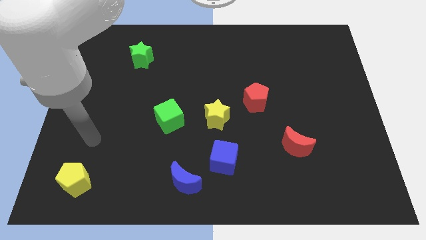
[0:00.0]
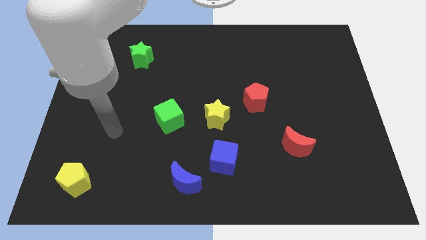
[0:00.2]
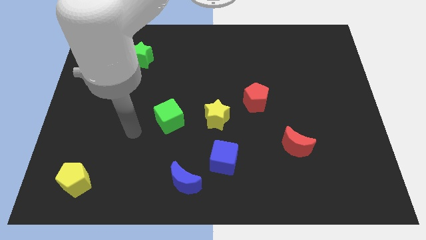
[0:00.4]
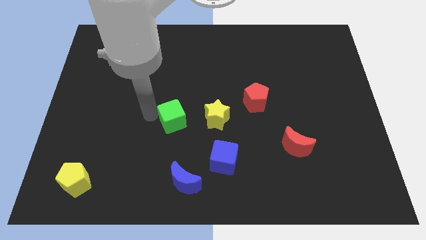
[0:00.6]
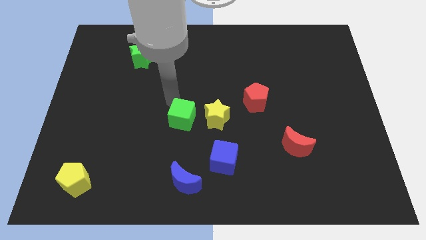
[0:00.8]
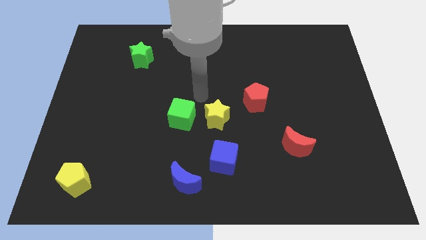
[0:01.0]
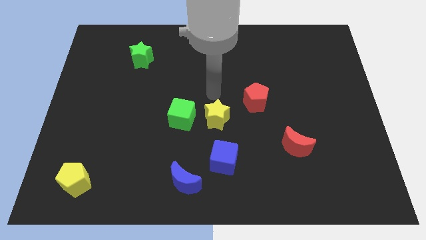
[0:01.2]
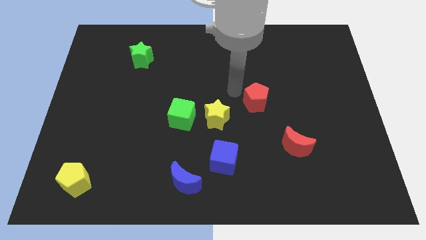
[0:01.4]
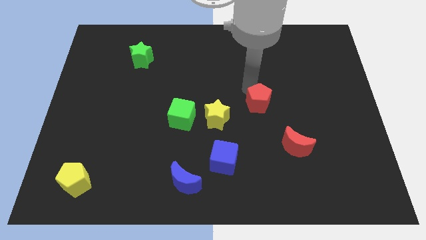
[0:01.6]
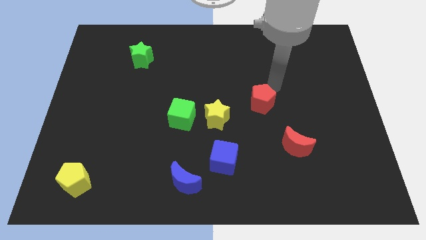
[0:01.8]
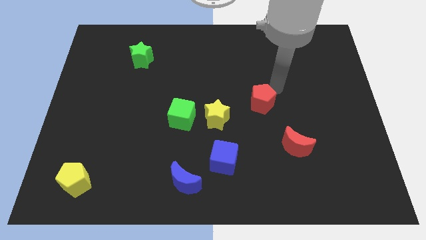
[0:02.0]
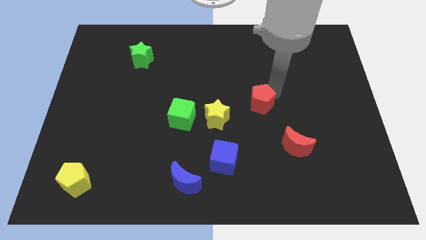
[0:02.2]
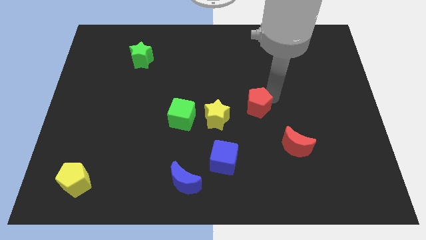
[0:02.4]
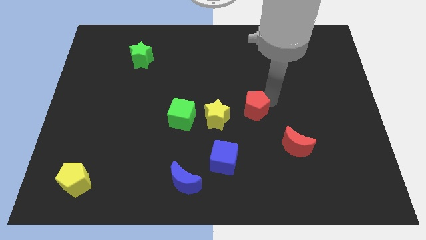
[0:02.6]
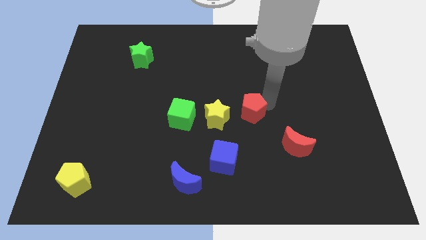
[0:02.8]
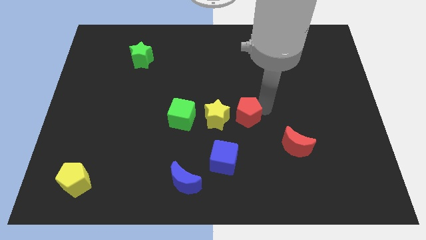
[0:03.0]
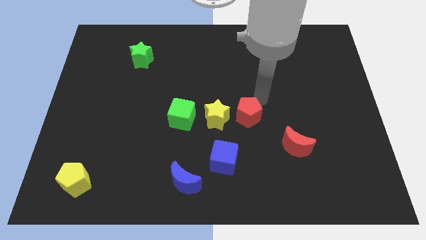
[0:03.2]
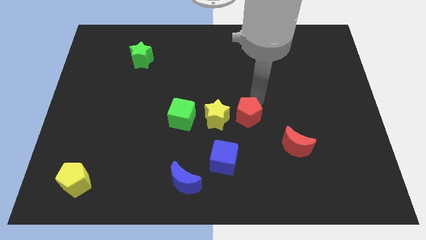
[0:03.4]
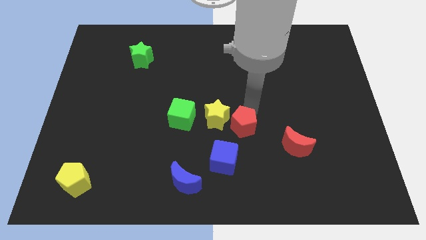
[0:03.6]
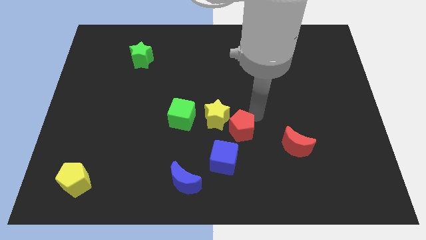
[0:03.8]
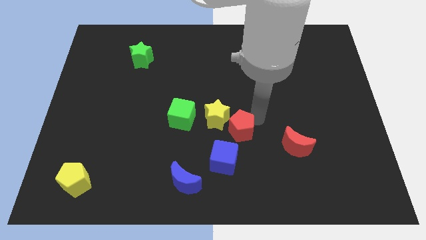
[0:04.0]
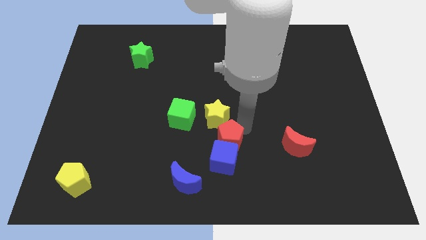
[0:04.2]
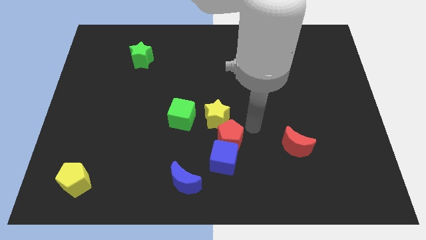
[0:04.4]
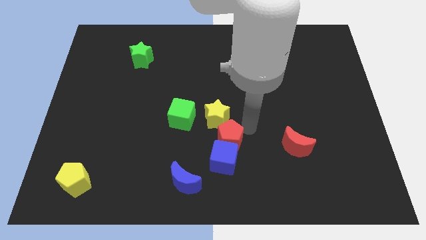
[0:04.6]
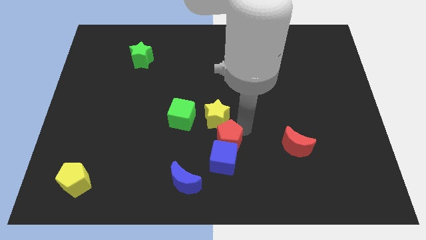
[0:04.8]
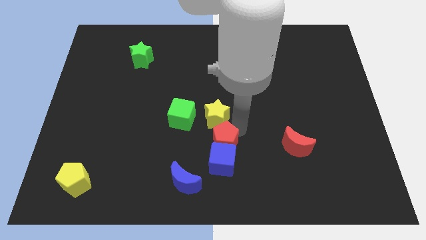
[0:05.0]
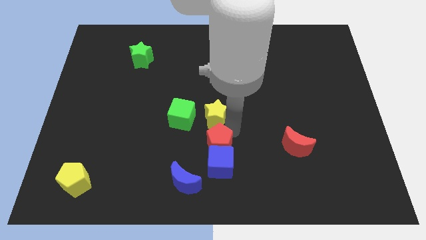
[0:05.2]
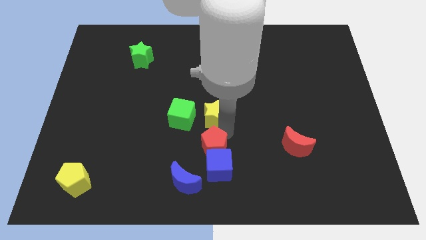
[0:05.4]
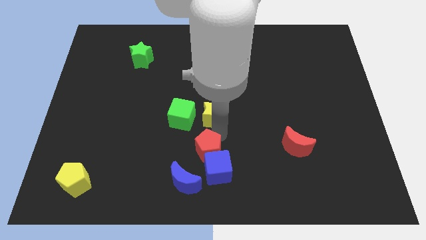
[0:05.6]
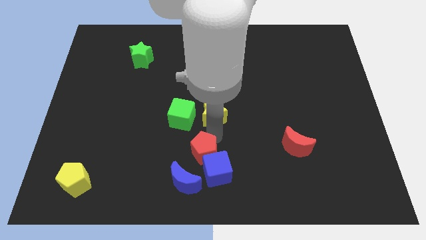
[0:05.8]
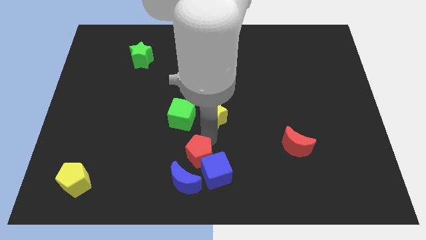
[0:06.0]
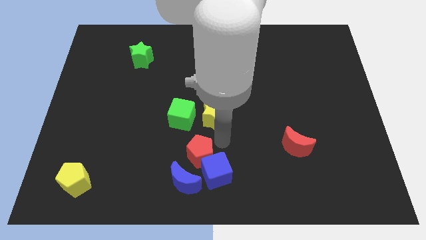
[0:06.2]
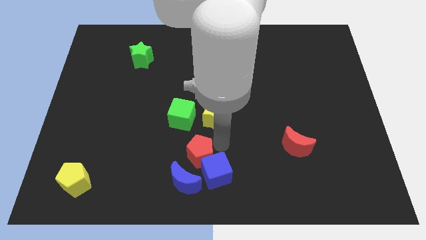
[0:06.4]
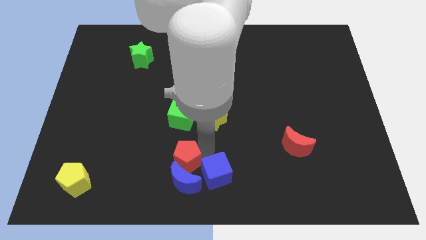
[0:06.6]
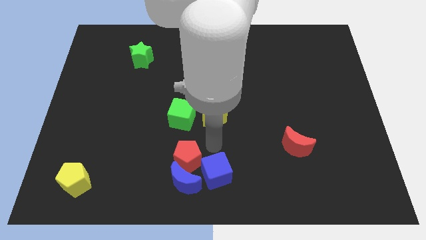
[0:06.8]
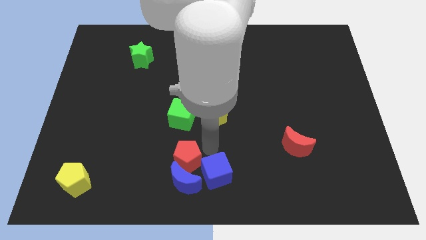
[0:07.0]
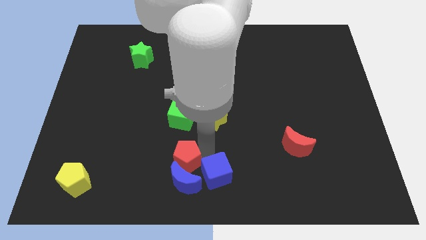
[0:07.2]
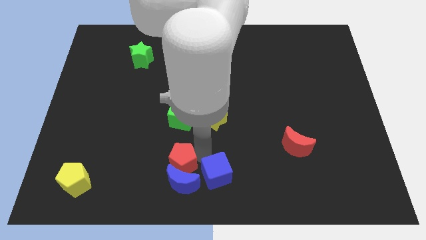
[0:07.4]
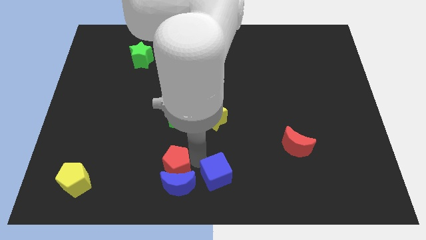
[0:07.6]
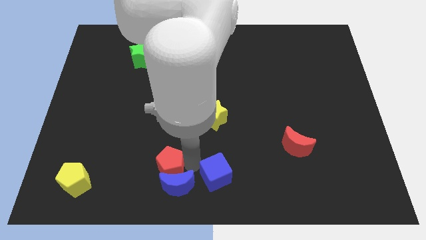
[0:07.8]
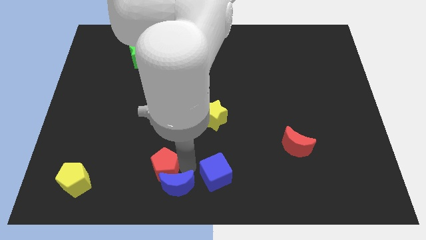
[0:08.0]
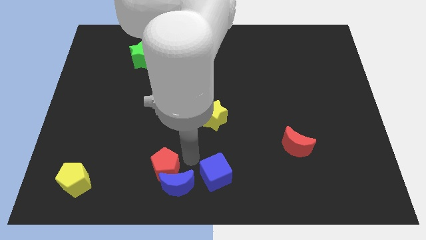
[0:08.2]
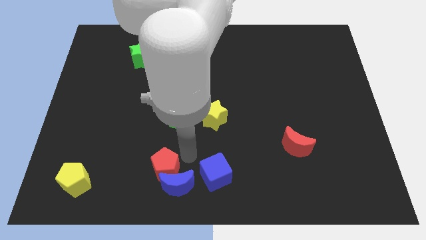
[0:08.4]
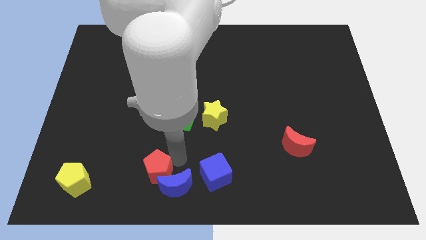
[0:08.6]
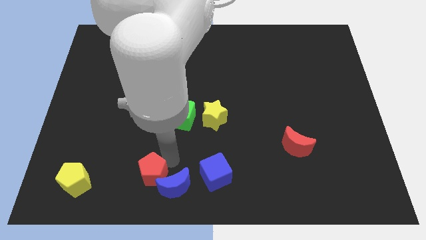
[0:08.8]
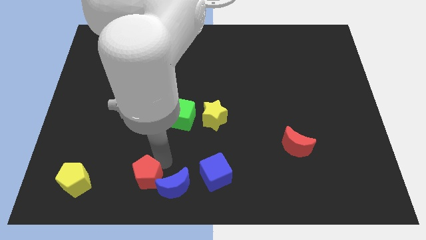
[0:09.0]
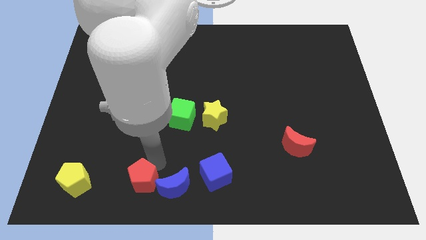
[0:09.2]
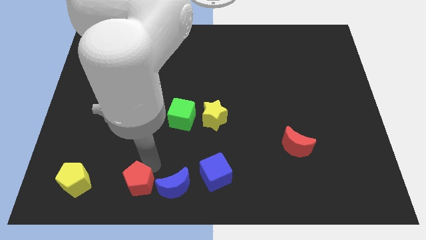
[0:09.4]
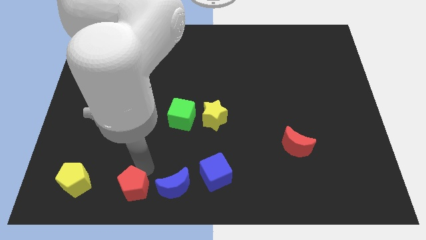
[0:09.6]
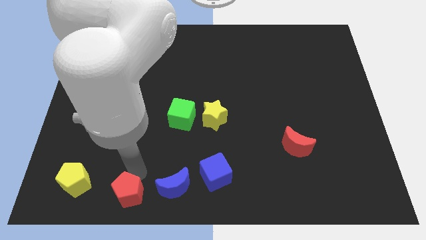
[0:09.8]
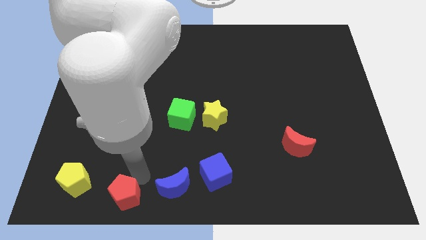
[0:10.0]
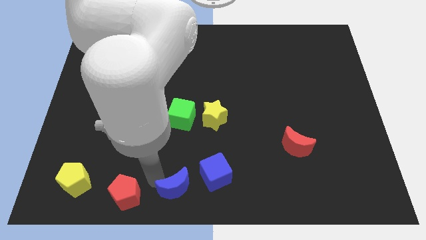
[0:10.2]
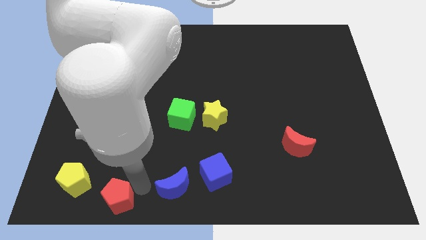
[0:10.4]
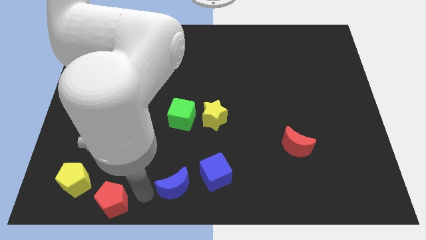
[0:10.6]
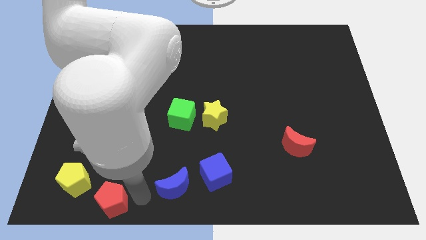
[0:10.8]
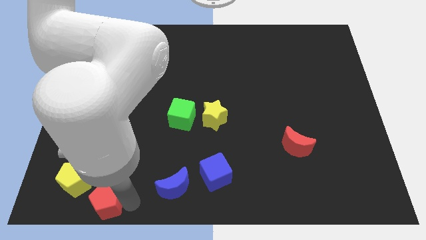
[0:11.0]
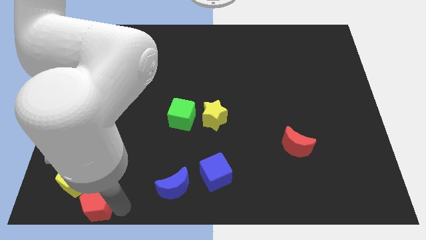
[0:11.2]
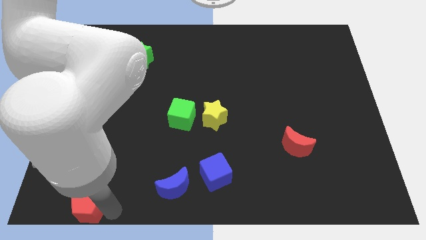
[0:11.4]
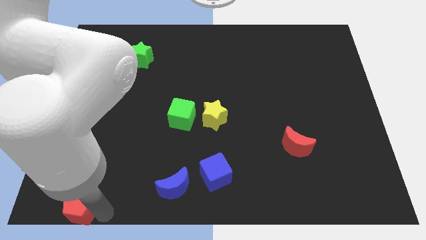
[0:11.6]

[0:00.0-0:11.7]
push the red pentagon to the lower left corner

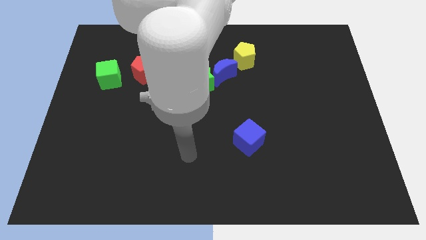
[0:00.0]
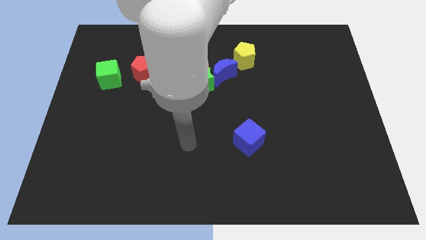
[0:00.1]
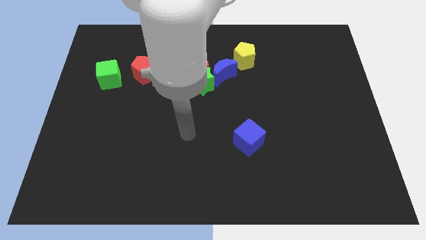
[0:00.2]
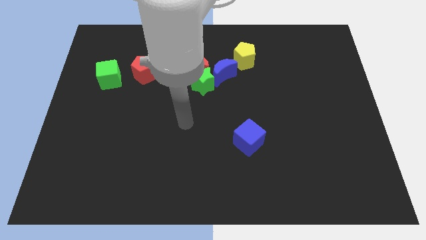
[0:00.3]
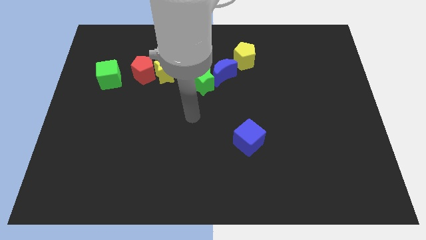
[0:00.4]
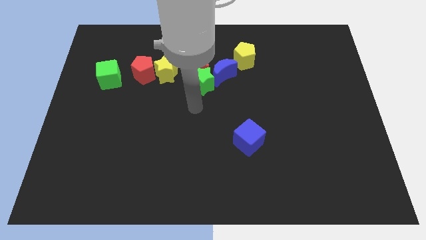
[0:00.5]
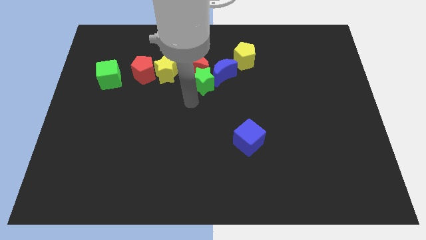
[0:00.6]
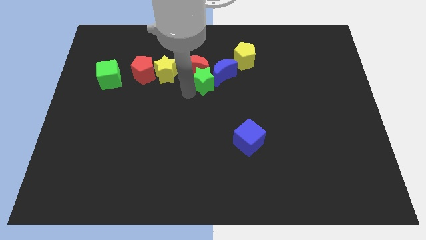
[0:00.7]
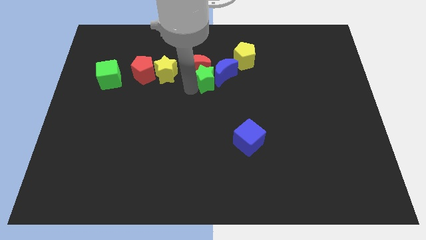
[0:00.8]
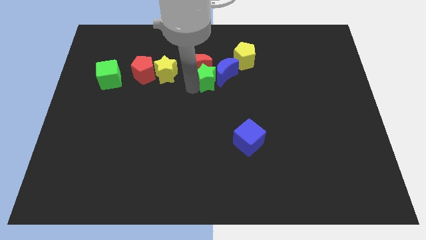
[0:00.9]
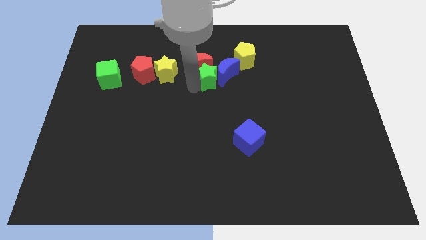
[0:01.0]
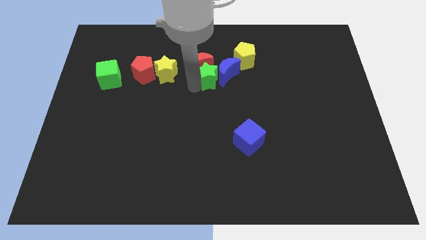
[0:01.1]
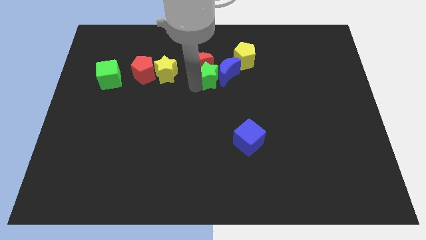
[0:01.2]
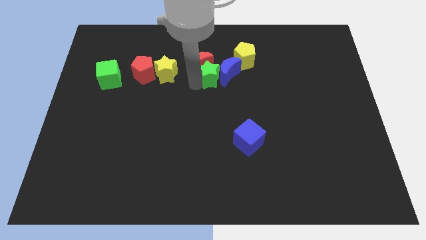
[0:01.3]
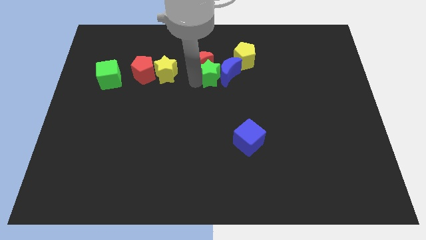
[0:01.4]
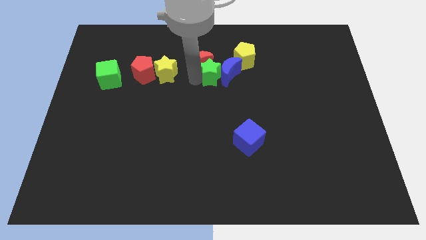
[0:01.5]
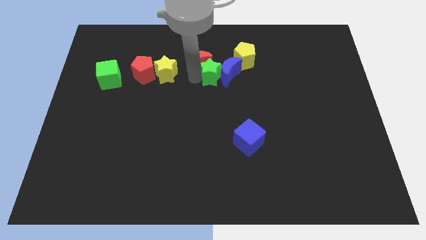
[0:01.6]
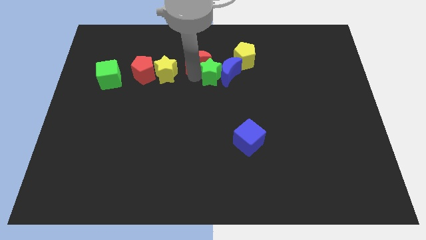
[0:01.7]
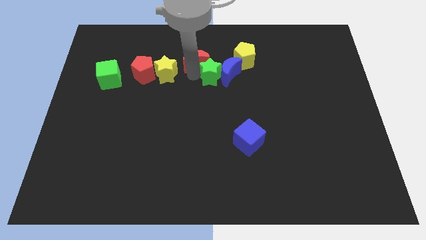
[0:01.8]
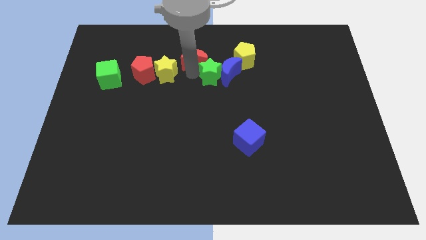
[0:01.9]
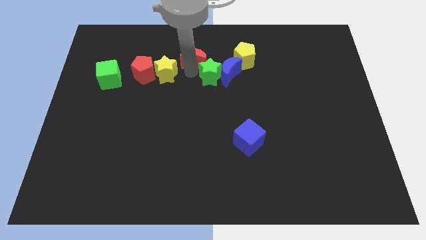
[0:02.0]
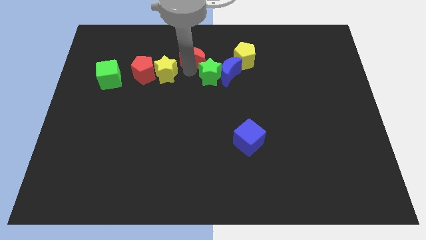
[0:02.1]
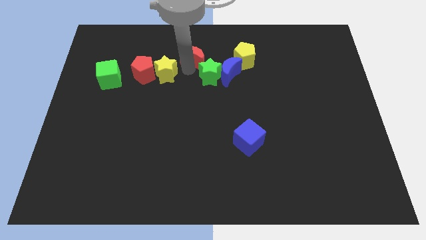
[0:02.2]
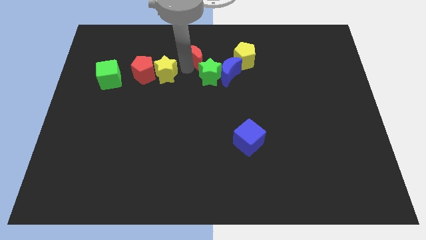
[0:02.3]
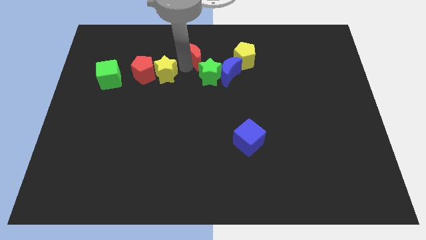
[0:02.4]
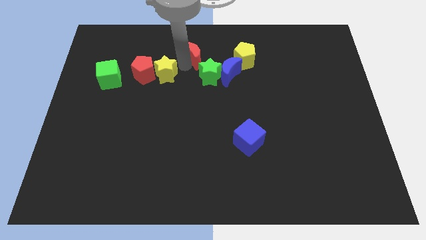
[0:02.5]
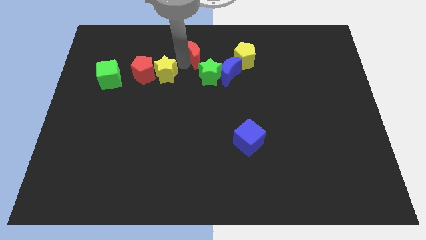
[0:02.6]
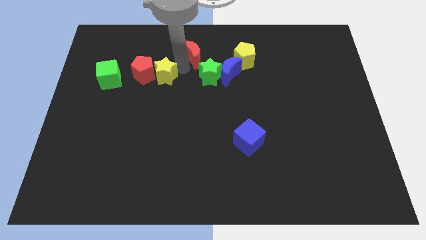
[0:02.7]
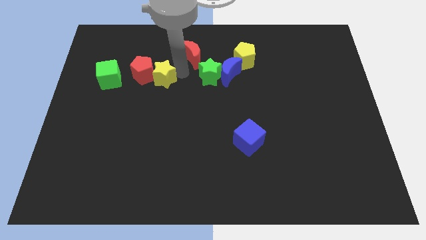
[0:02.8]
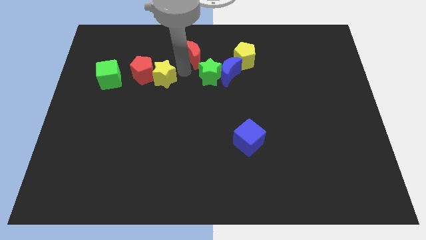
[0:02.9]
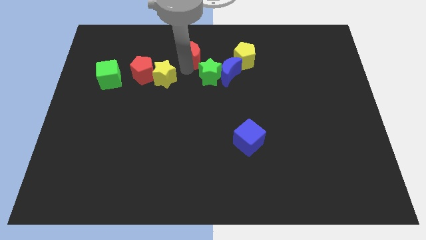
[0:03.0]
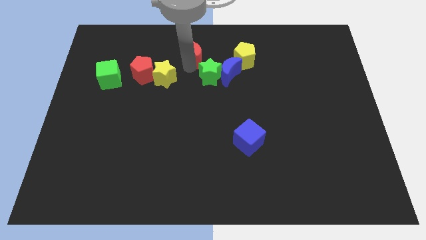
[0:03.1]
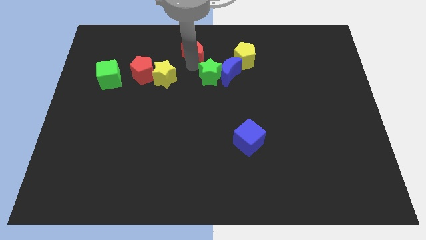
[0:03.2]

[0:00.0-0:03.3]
push the red moon to the towards your base
